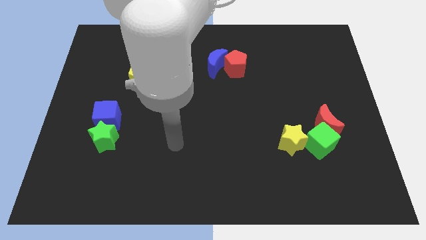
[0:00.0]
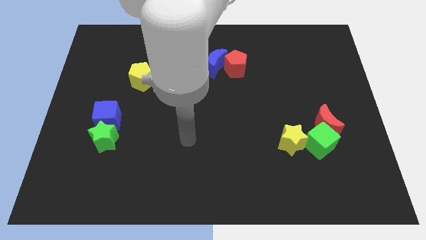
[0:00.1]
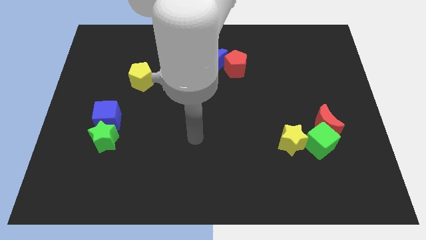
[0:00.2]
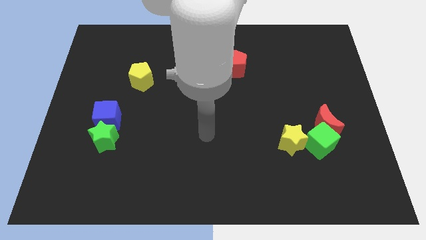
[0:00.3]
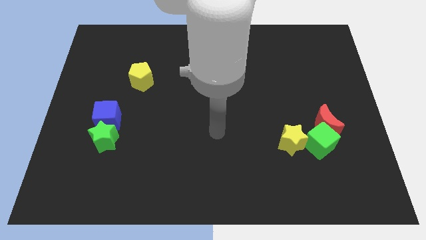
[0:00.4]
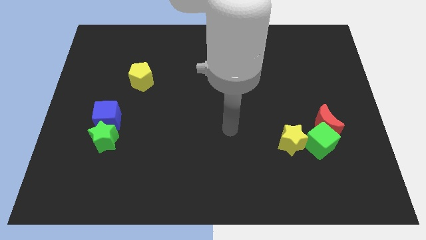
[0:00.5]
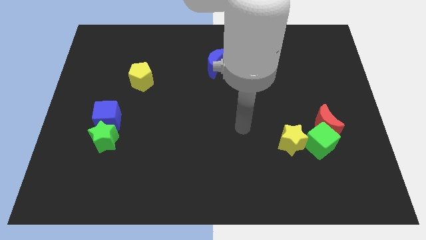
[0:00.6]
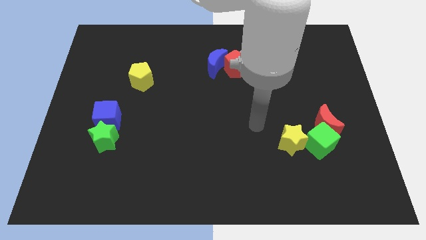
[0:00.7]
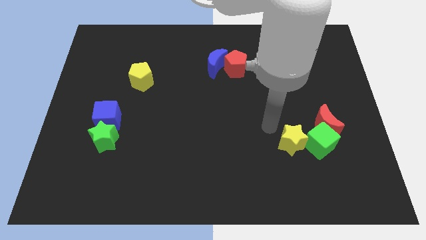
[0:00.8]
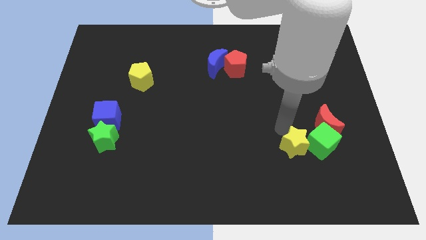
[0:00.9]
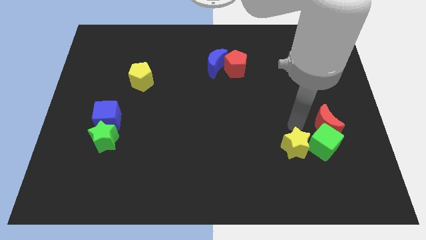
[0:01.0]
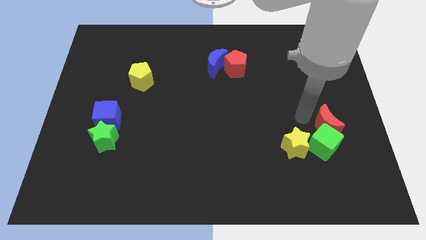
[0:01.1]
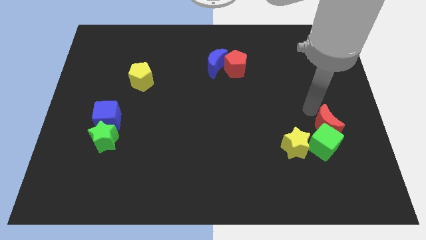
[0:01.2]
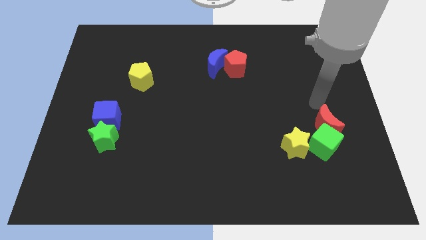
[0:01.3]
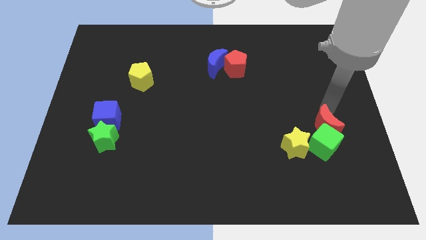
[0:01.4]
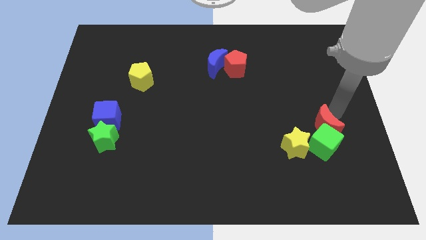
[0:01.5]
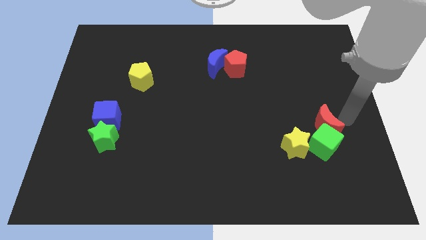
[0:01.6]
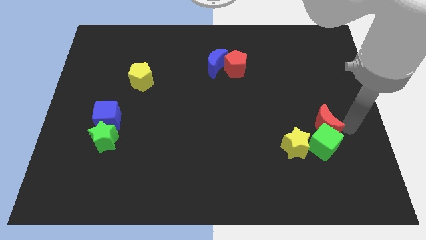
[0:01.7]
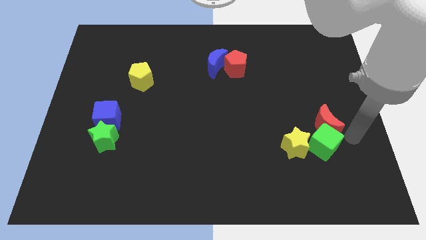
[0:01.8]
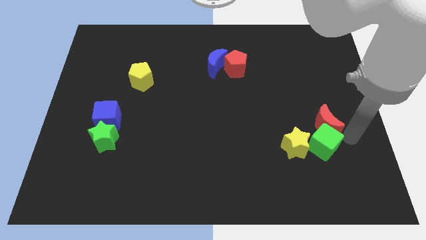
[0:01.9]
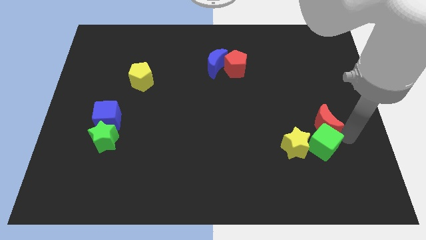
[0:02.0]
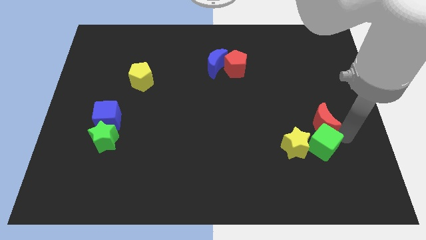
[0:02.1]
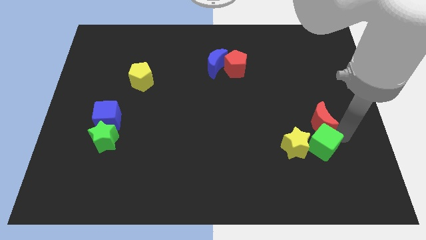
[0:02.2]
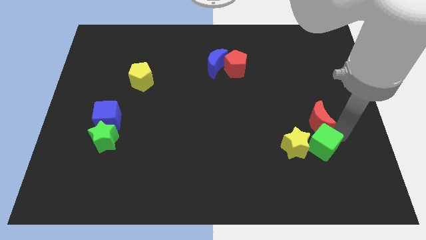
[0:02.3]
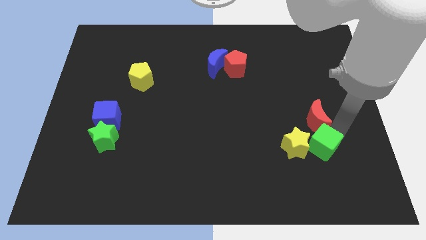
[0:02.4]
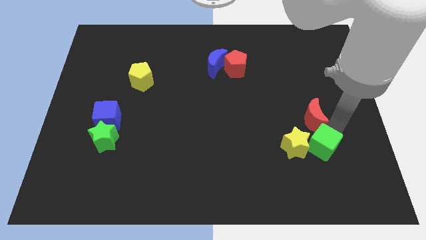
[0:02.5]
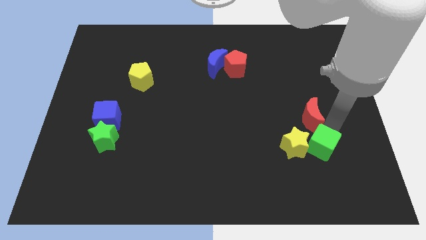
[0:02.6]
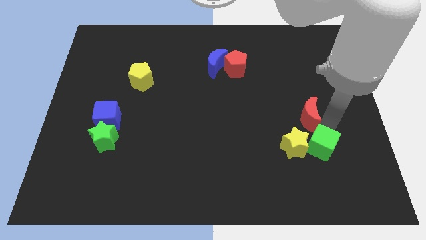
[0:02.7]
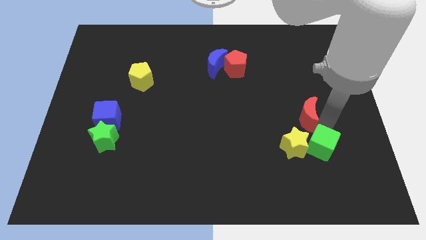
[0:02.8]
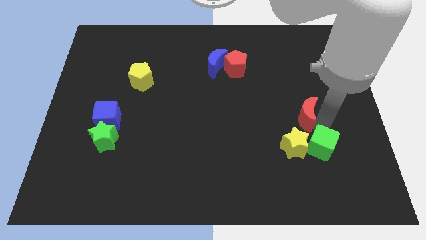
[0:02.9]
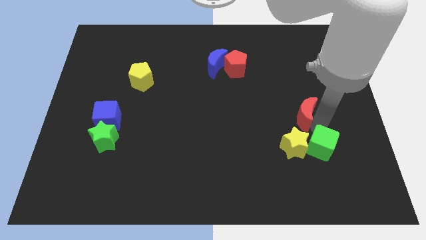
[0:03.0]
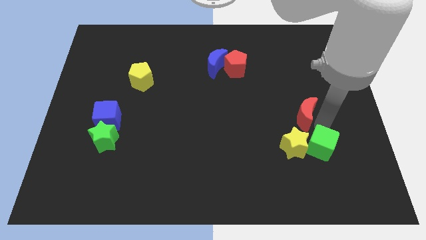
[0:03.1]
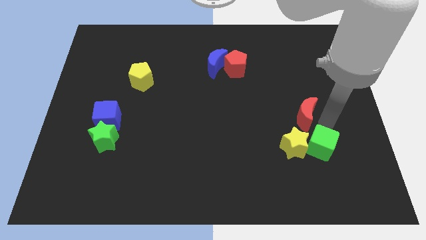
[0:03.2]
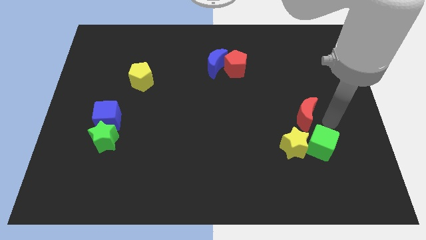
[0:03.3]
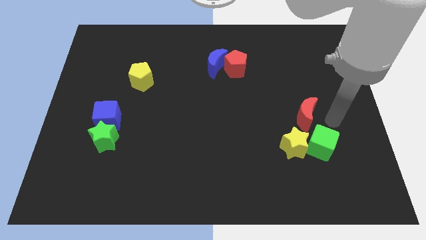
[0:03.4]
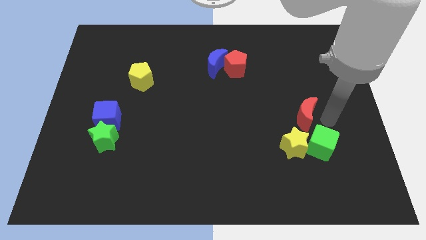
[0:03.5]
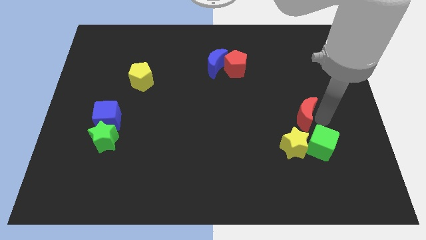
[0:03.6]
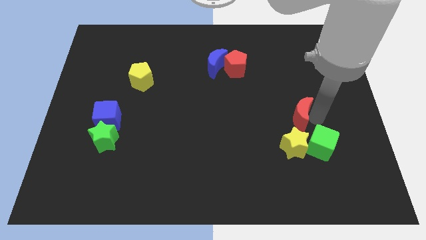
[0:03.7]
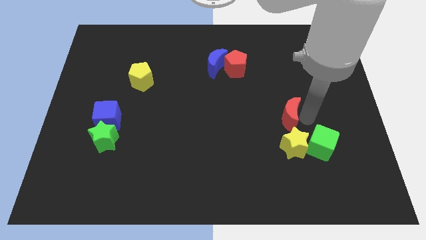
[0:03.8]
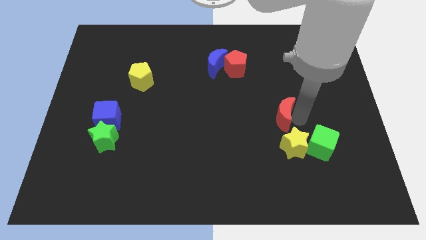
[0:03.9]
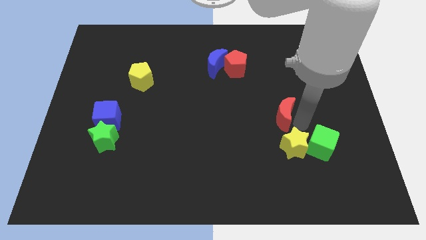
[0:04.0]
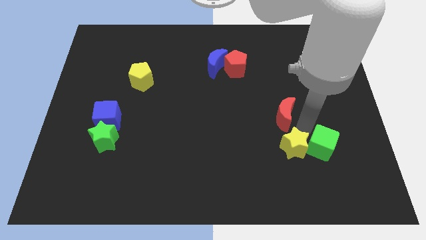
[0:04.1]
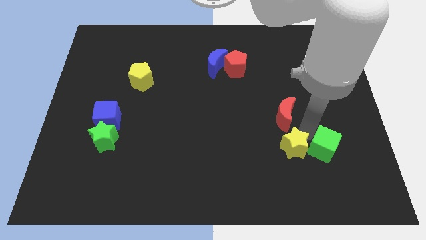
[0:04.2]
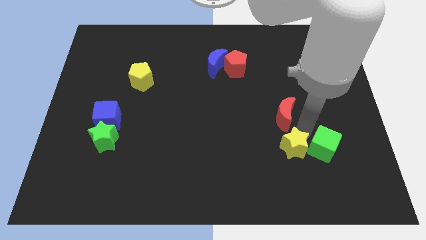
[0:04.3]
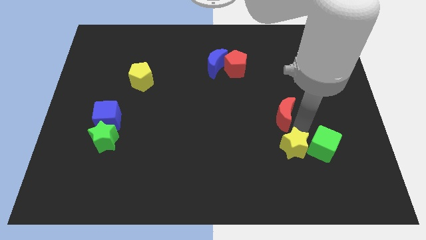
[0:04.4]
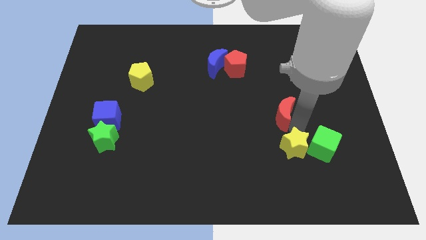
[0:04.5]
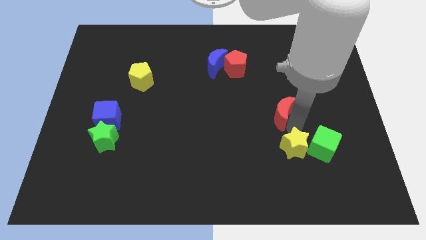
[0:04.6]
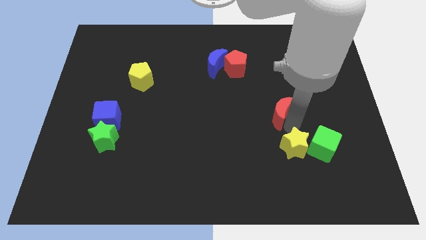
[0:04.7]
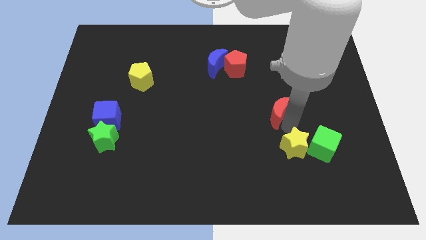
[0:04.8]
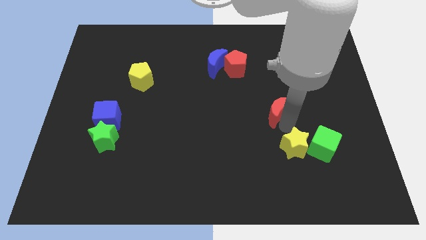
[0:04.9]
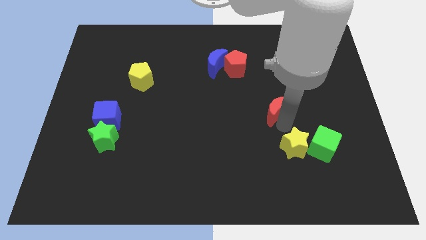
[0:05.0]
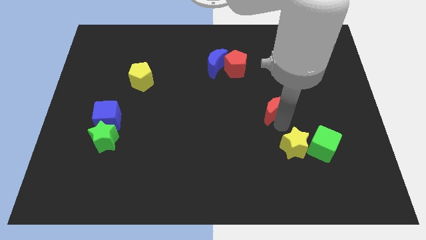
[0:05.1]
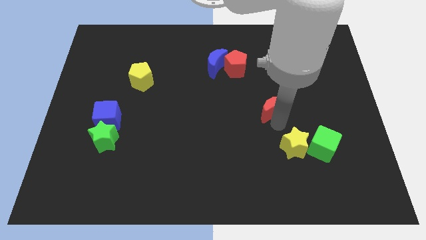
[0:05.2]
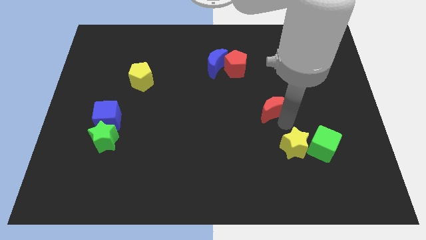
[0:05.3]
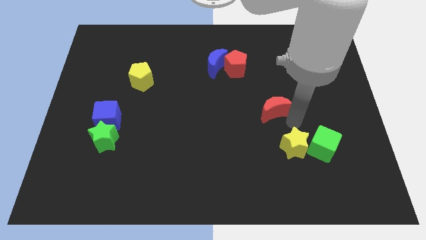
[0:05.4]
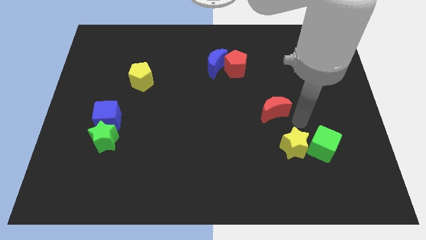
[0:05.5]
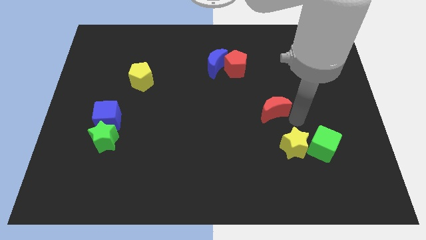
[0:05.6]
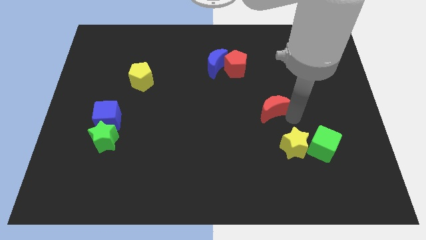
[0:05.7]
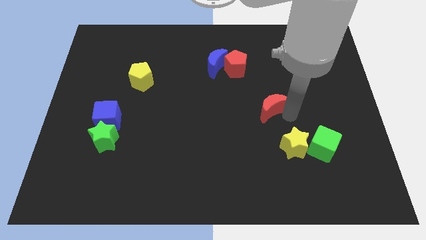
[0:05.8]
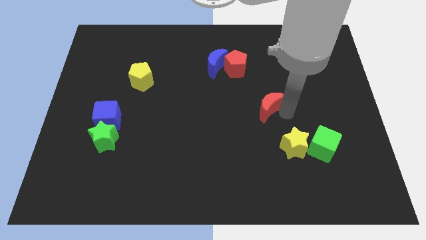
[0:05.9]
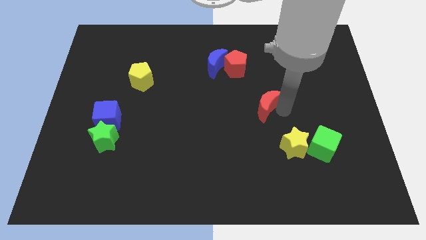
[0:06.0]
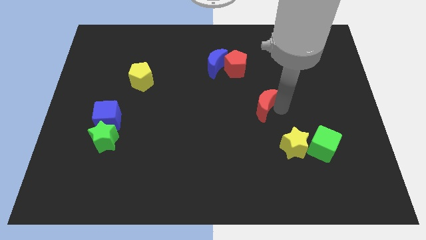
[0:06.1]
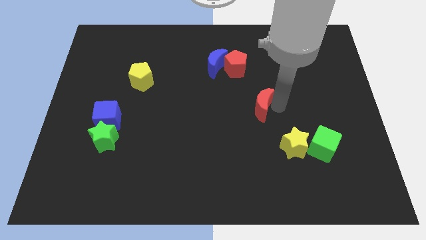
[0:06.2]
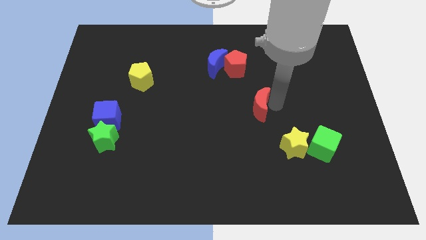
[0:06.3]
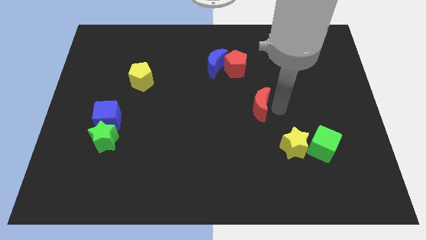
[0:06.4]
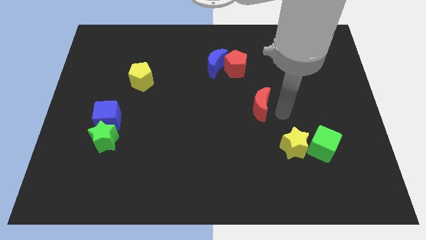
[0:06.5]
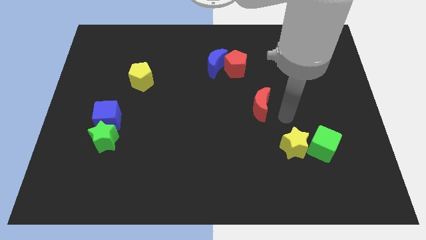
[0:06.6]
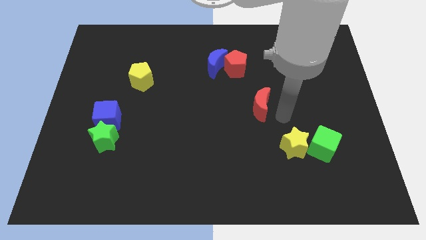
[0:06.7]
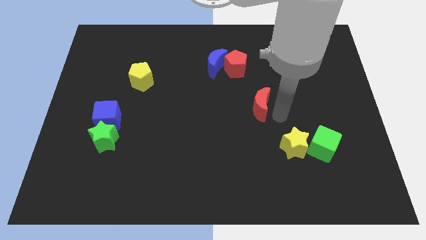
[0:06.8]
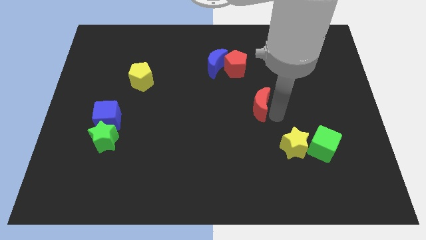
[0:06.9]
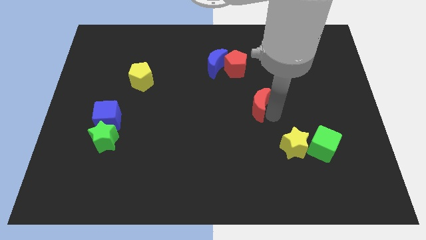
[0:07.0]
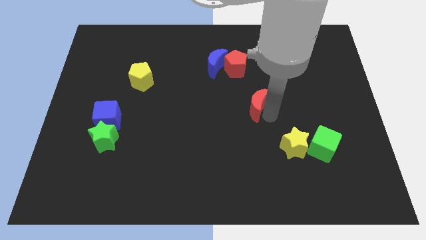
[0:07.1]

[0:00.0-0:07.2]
put the red moon below the red pentagon
